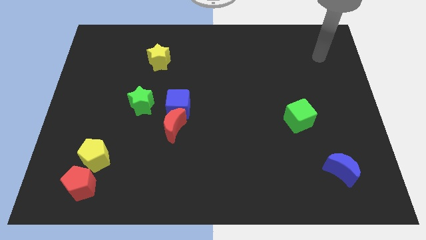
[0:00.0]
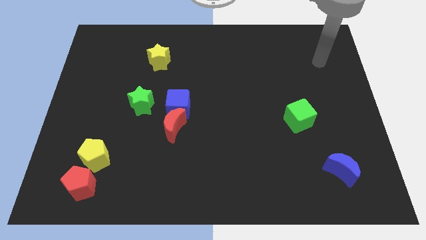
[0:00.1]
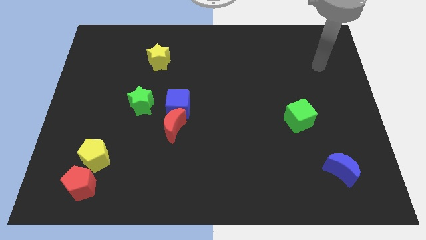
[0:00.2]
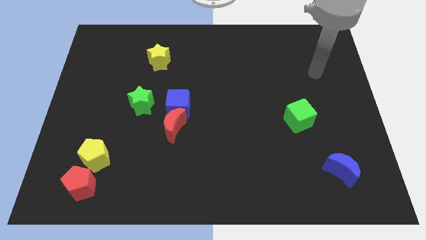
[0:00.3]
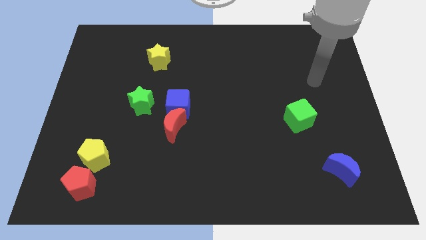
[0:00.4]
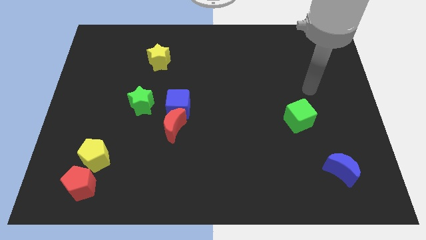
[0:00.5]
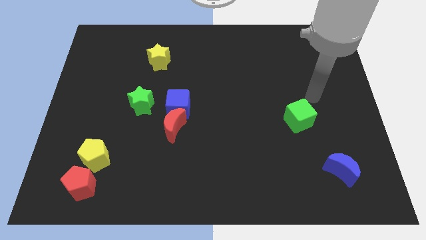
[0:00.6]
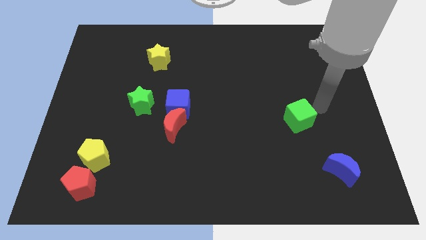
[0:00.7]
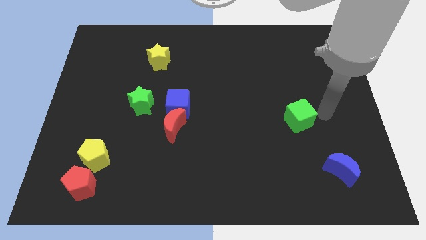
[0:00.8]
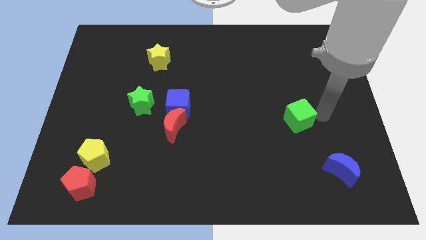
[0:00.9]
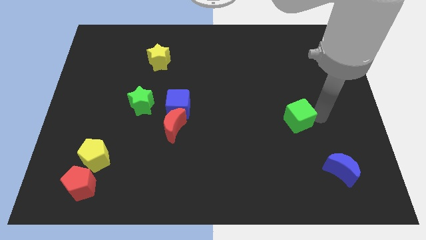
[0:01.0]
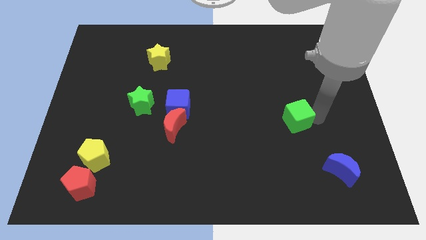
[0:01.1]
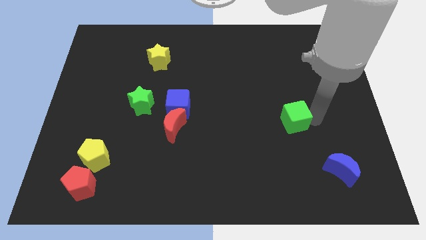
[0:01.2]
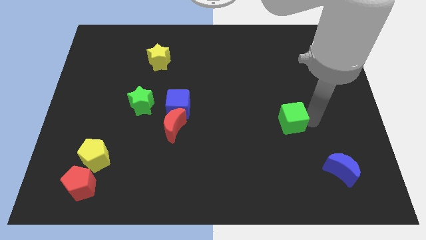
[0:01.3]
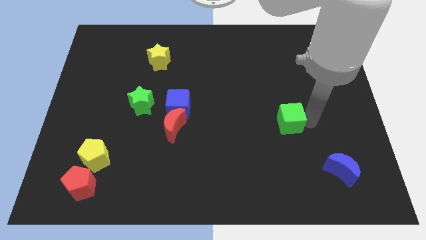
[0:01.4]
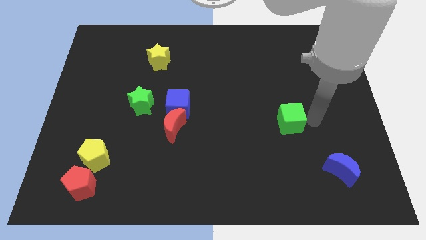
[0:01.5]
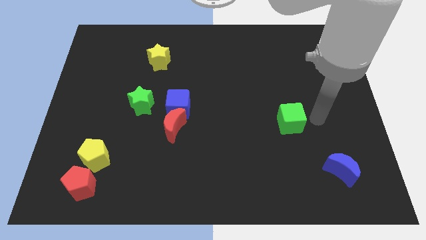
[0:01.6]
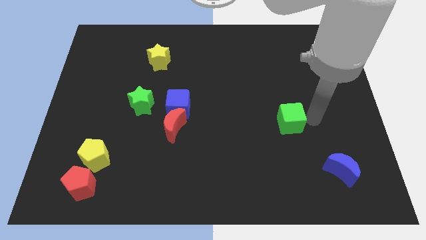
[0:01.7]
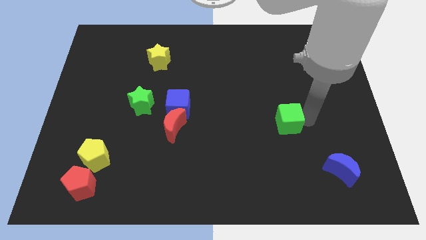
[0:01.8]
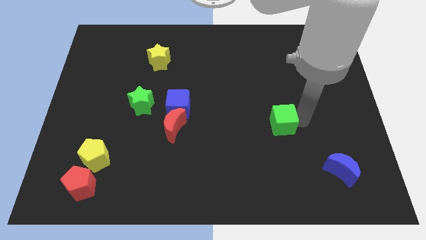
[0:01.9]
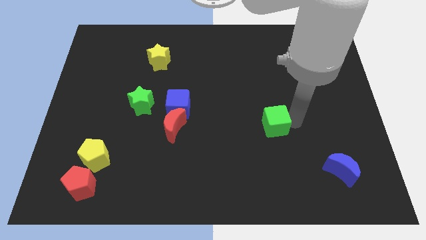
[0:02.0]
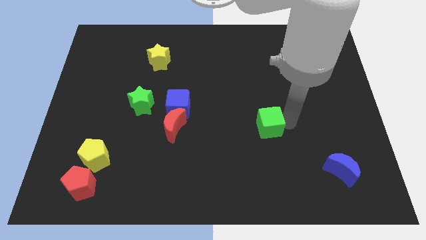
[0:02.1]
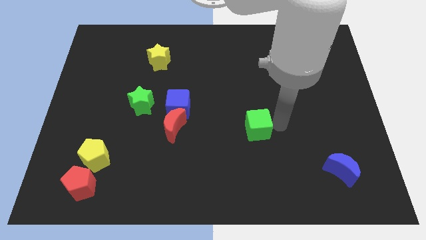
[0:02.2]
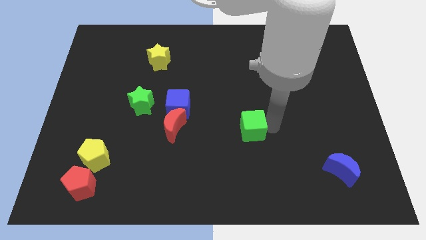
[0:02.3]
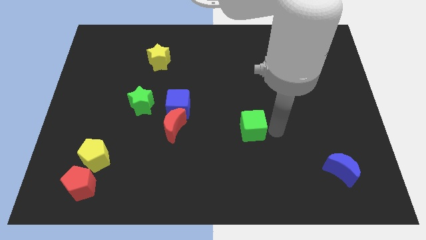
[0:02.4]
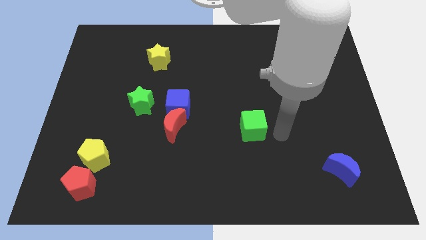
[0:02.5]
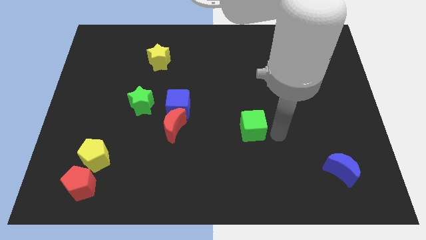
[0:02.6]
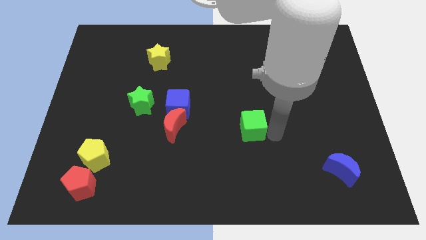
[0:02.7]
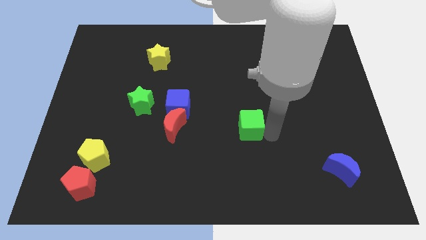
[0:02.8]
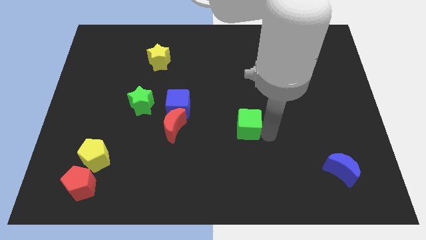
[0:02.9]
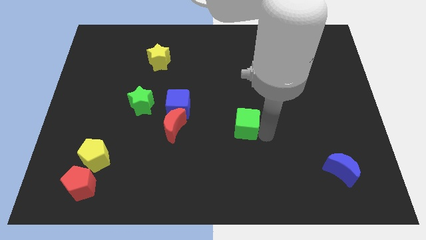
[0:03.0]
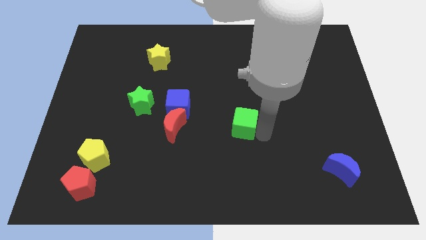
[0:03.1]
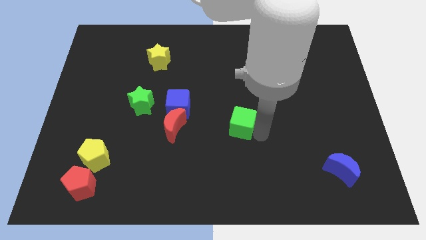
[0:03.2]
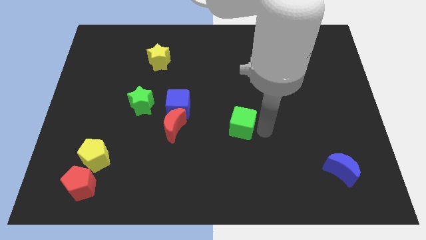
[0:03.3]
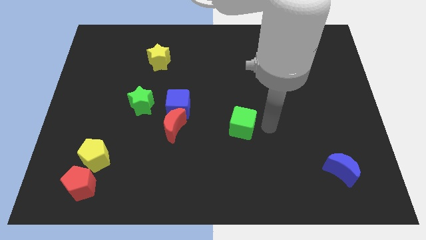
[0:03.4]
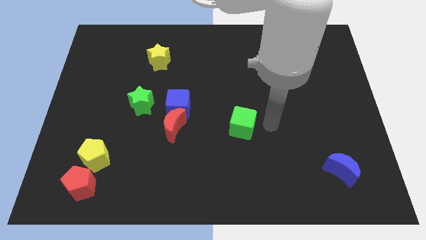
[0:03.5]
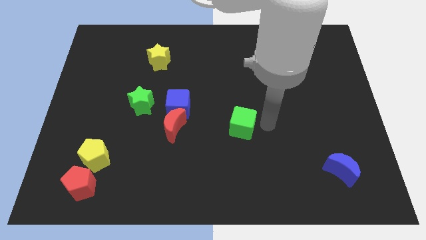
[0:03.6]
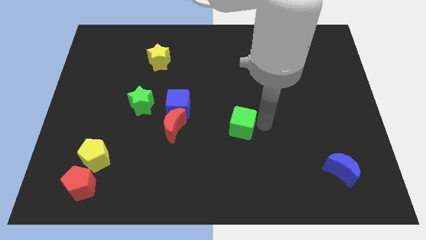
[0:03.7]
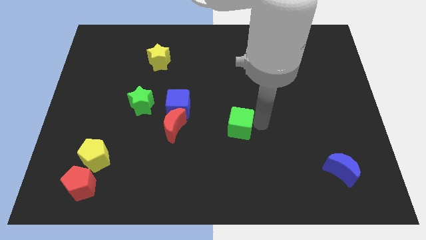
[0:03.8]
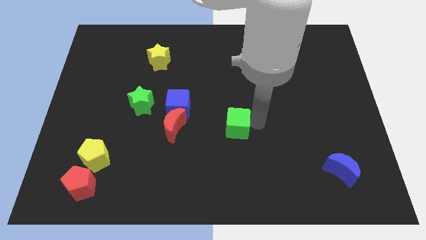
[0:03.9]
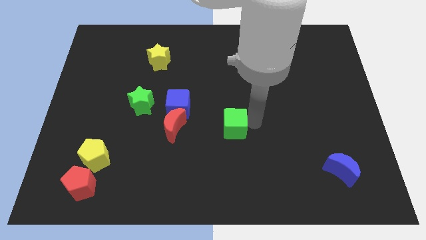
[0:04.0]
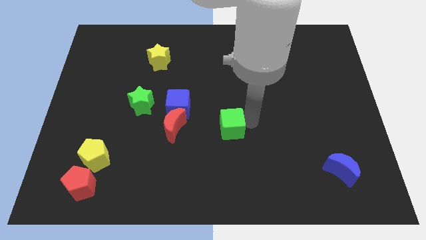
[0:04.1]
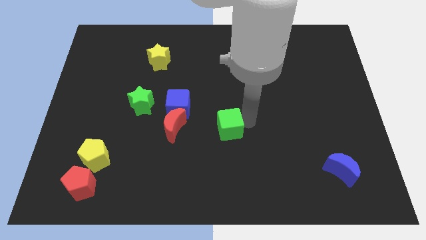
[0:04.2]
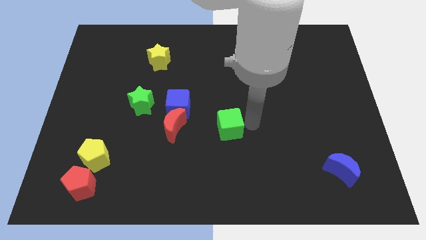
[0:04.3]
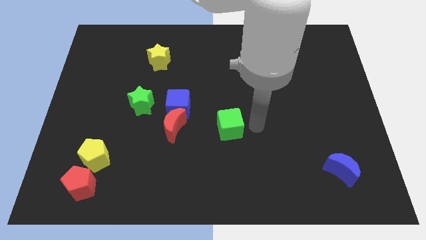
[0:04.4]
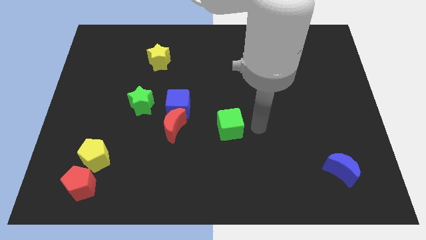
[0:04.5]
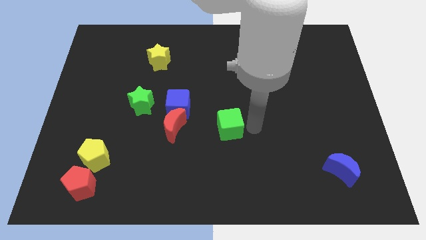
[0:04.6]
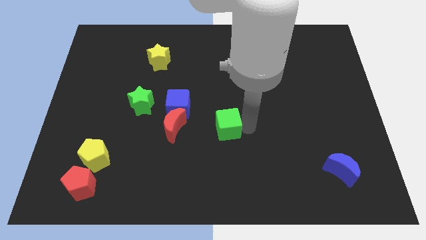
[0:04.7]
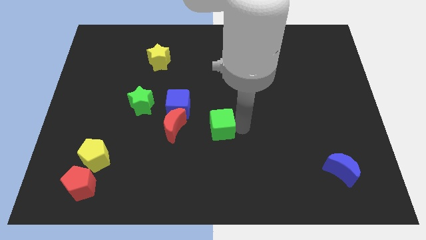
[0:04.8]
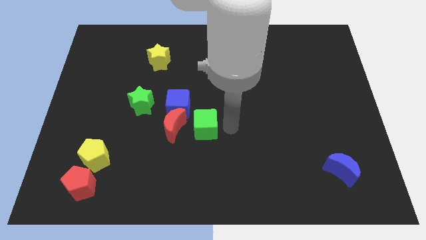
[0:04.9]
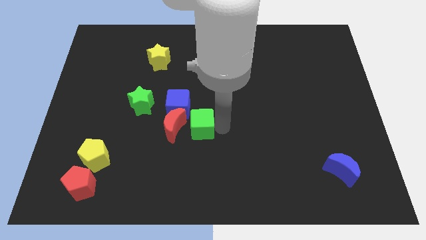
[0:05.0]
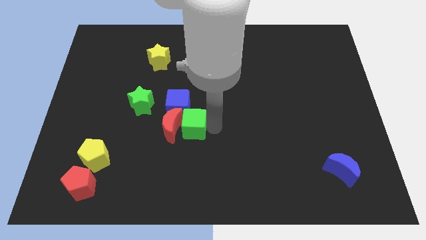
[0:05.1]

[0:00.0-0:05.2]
move the green cube to the red moon

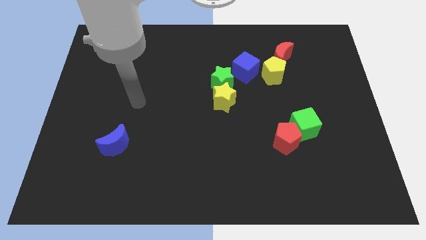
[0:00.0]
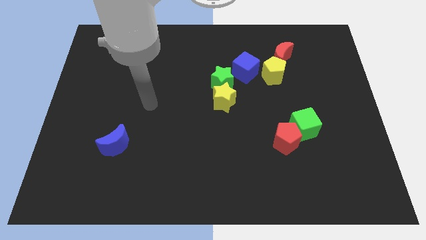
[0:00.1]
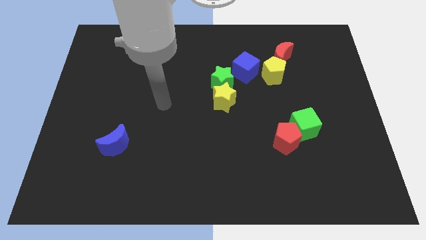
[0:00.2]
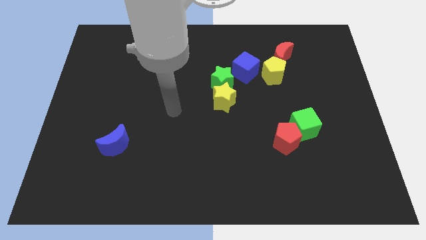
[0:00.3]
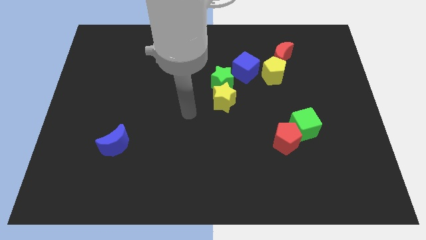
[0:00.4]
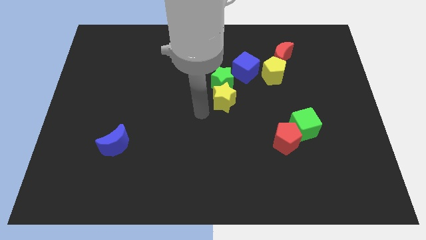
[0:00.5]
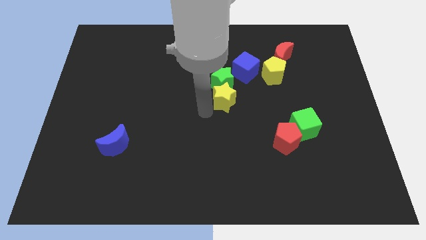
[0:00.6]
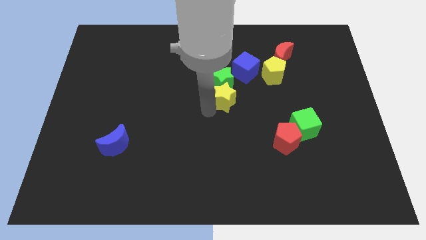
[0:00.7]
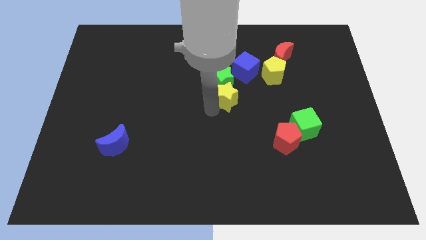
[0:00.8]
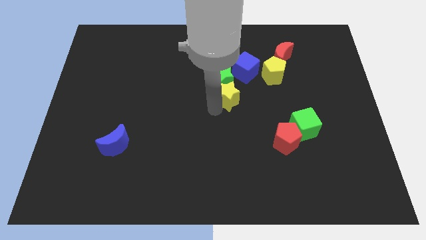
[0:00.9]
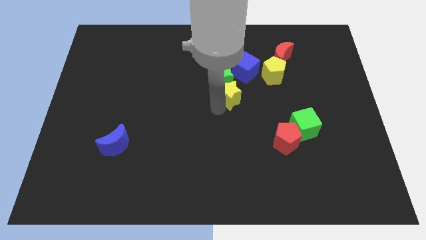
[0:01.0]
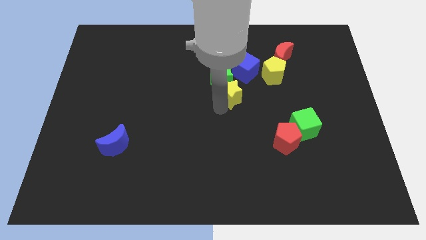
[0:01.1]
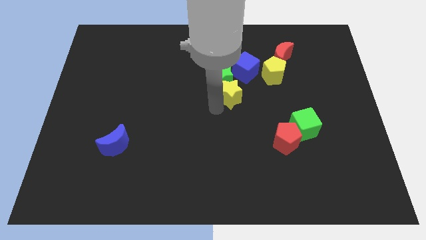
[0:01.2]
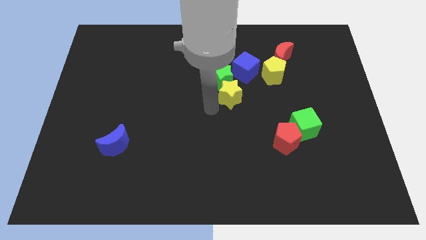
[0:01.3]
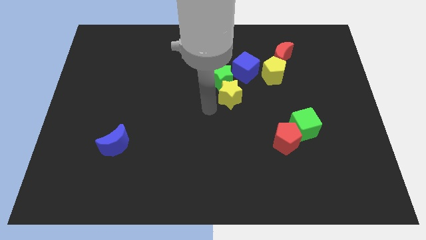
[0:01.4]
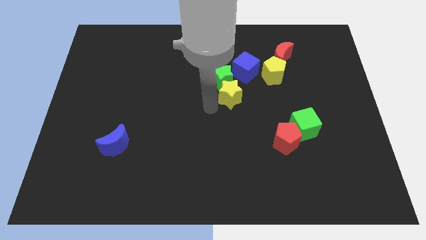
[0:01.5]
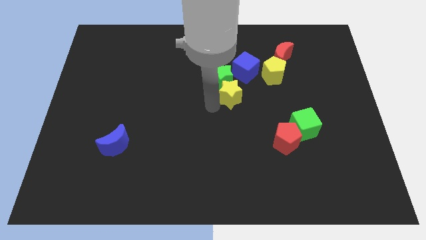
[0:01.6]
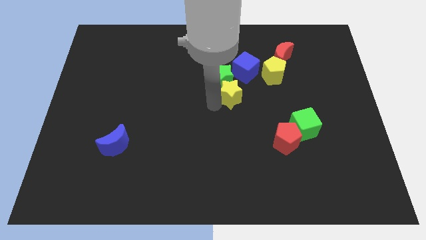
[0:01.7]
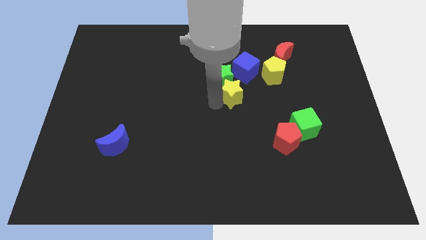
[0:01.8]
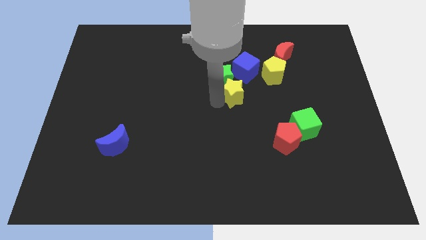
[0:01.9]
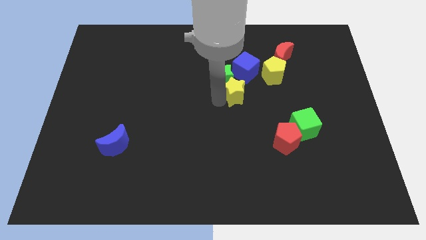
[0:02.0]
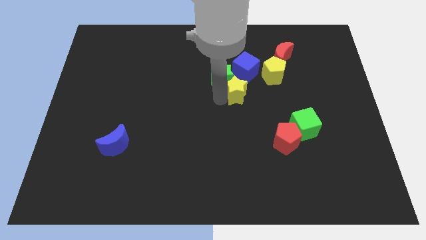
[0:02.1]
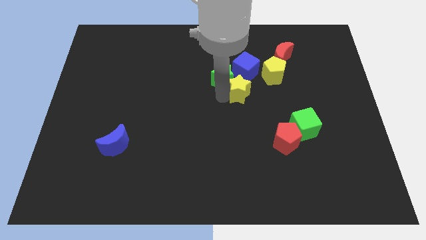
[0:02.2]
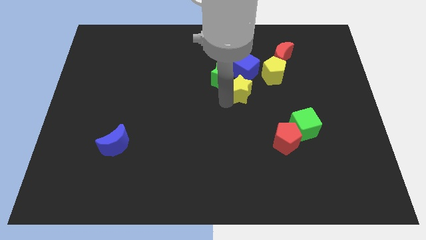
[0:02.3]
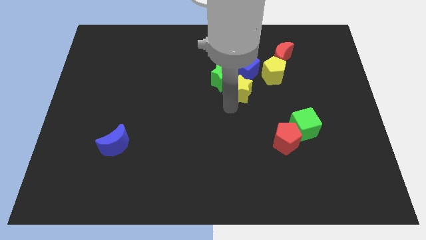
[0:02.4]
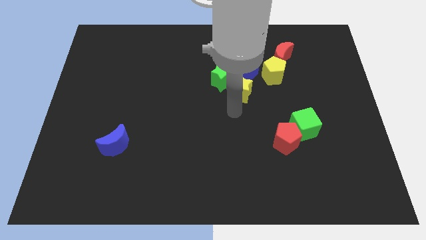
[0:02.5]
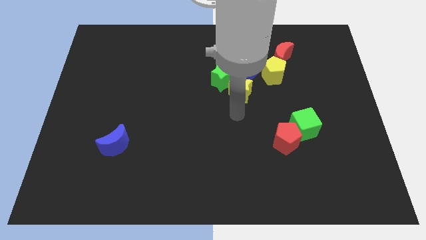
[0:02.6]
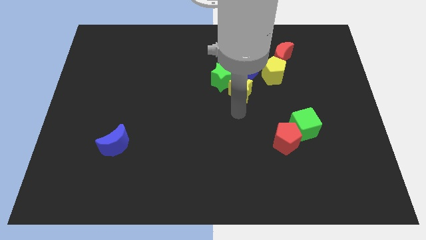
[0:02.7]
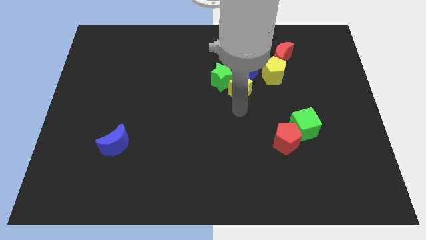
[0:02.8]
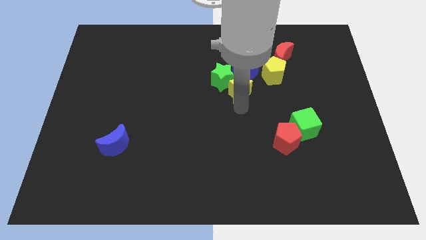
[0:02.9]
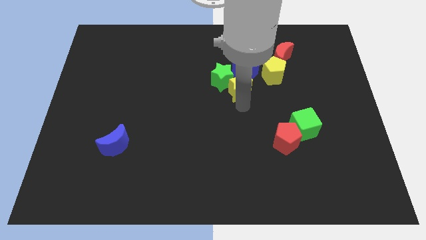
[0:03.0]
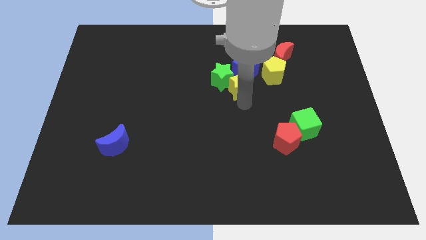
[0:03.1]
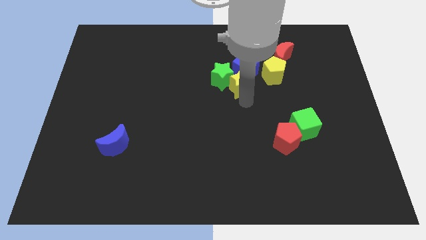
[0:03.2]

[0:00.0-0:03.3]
slide the yellow star next to the blue cube
